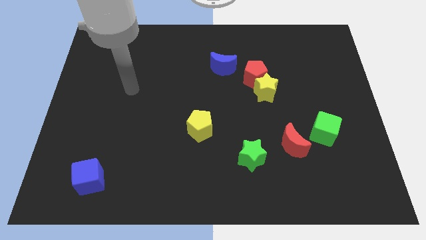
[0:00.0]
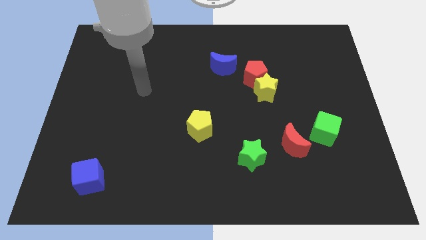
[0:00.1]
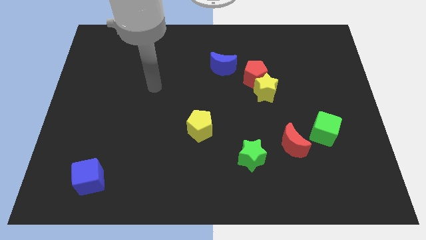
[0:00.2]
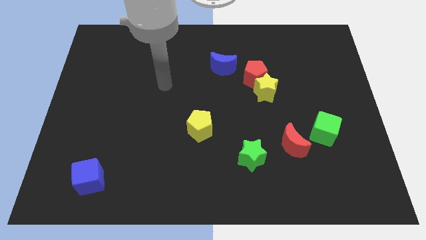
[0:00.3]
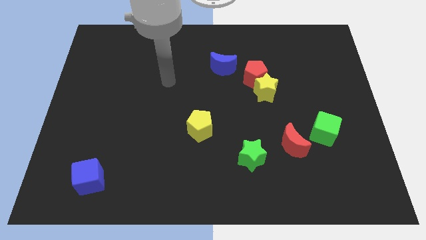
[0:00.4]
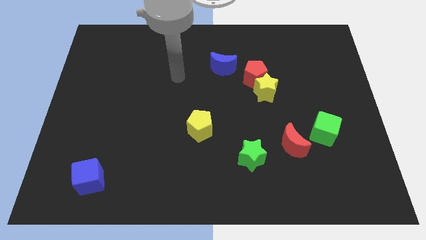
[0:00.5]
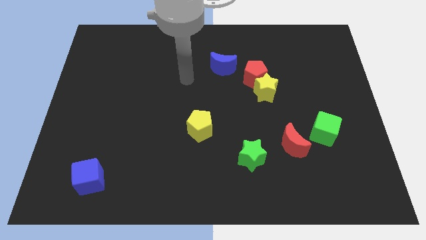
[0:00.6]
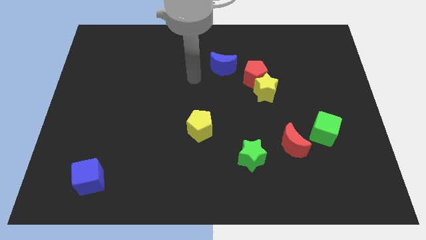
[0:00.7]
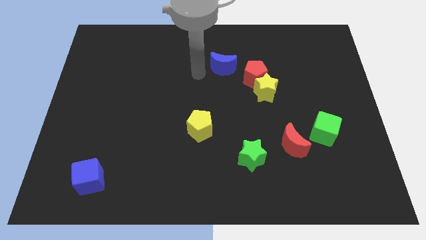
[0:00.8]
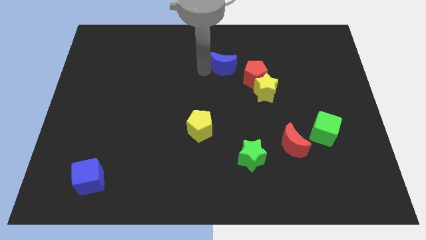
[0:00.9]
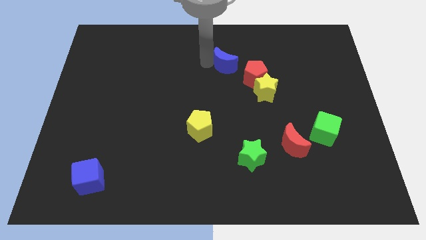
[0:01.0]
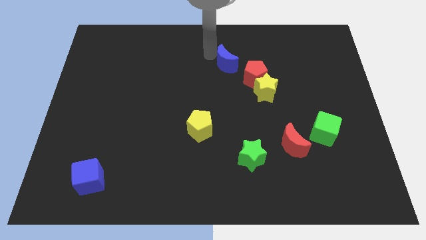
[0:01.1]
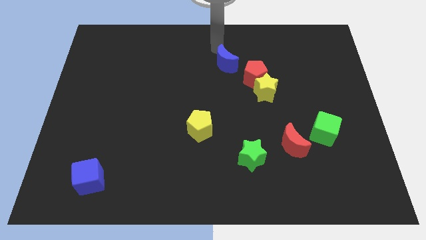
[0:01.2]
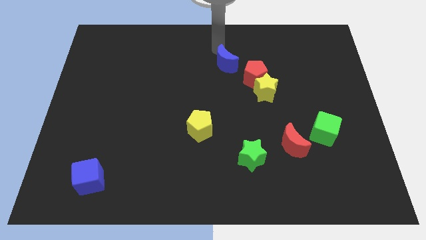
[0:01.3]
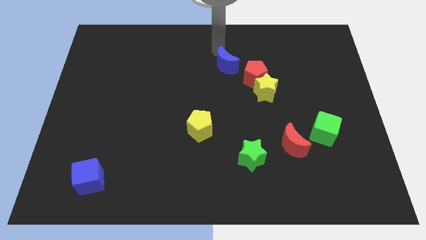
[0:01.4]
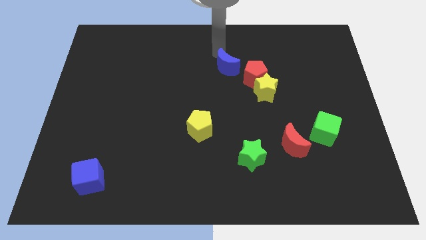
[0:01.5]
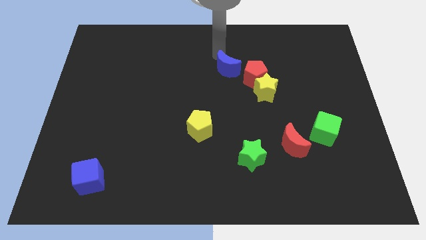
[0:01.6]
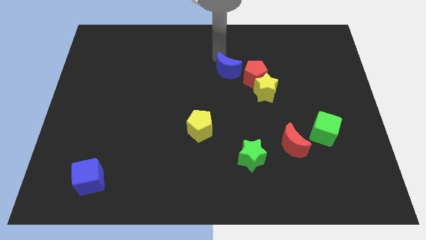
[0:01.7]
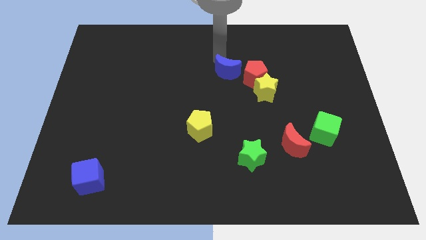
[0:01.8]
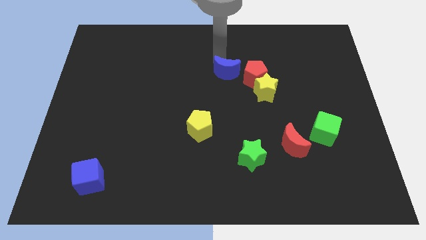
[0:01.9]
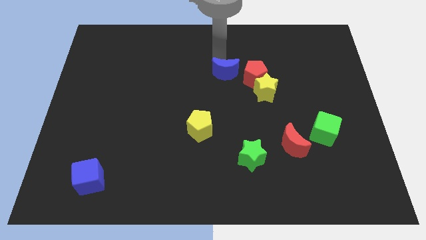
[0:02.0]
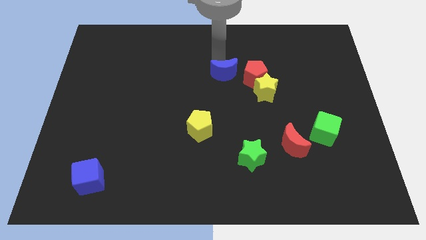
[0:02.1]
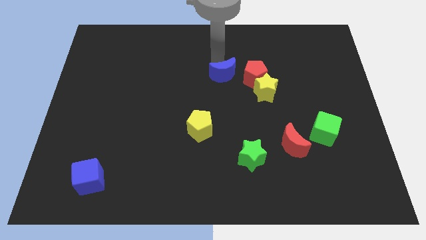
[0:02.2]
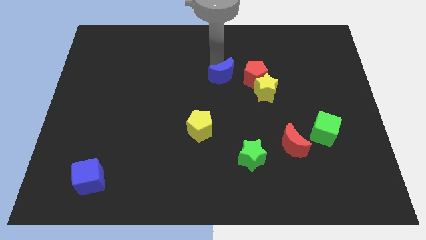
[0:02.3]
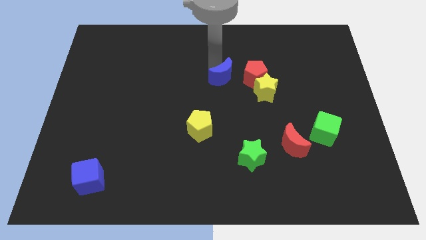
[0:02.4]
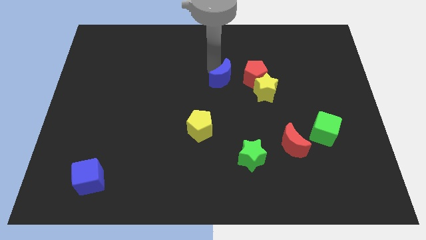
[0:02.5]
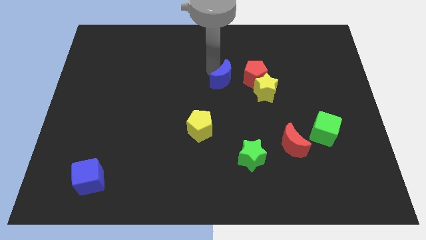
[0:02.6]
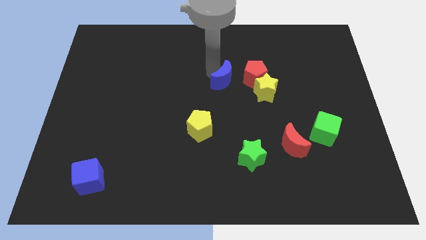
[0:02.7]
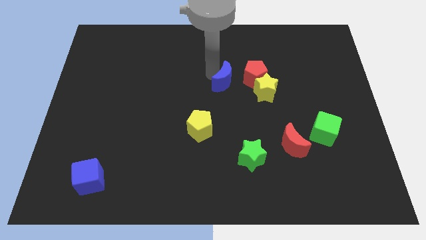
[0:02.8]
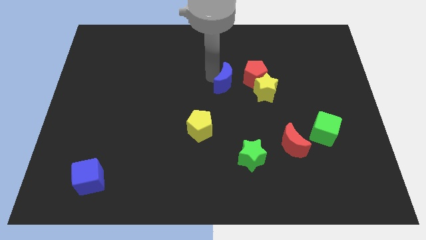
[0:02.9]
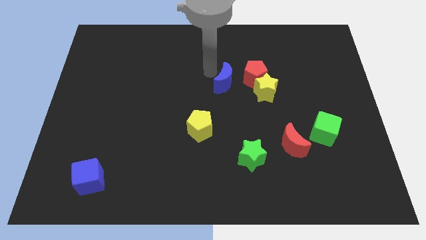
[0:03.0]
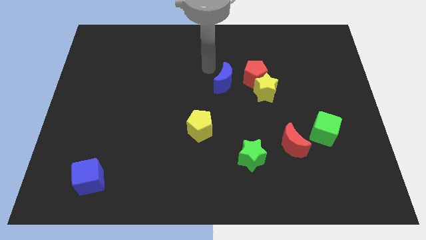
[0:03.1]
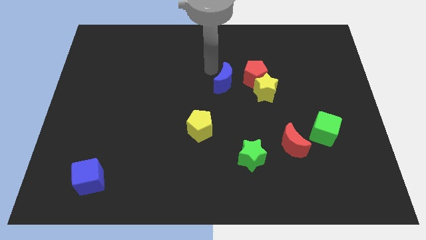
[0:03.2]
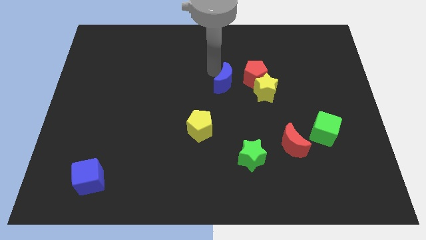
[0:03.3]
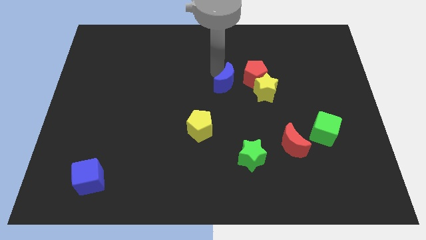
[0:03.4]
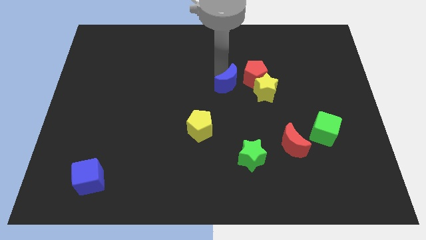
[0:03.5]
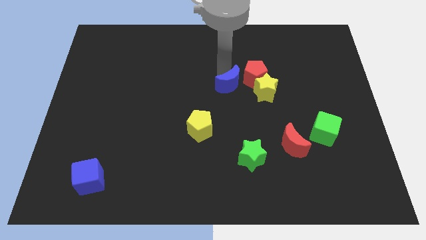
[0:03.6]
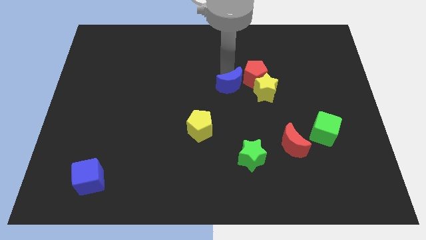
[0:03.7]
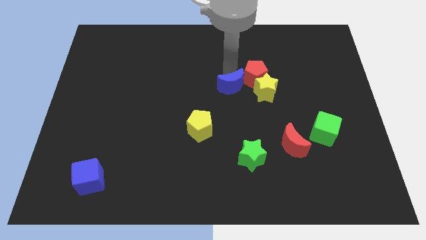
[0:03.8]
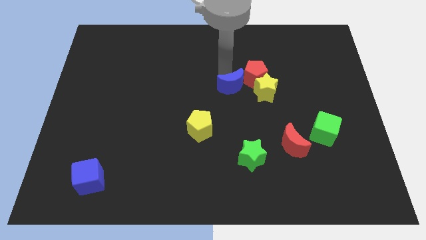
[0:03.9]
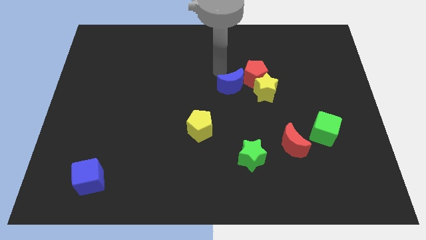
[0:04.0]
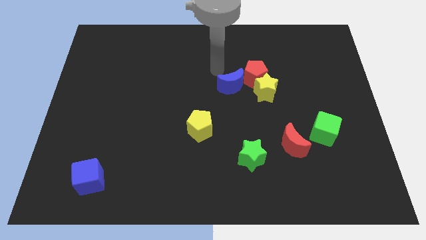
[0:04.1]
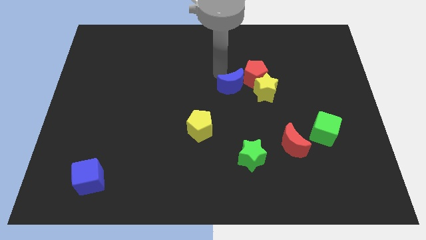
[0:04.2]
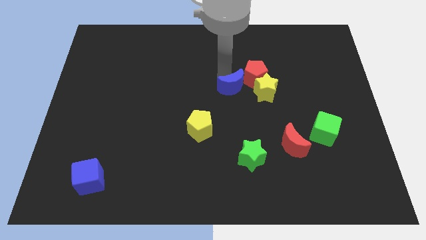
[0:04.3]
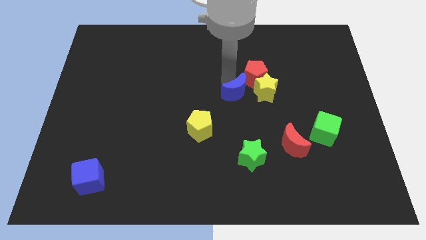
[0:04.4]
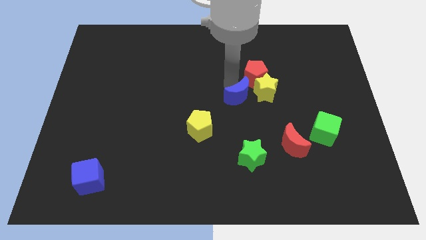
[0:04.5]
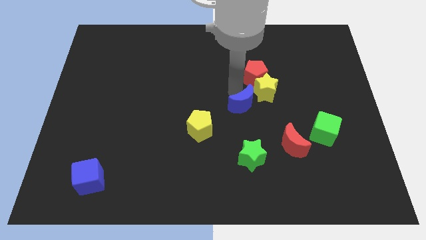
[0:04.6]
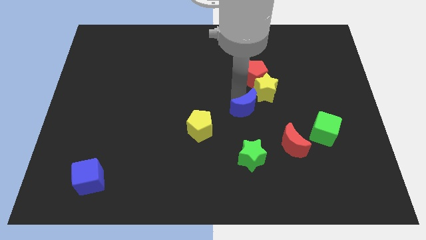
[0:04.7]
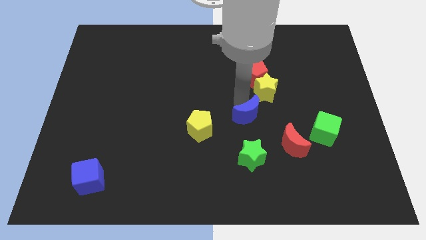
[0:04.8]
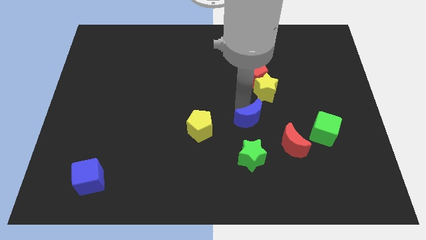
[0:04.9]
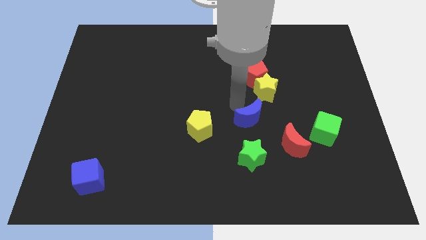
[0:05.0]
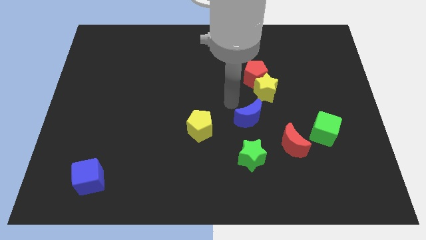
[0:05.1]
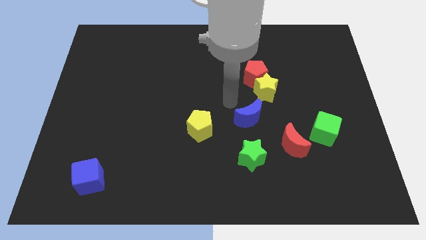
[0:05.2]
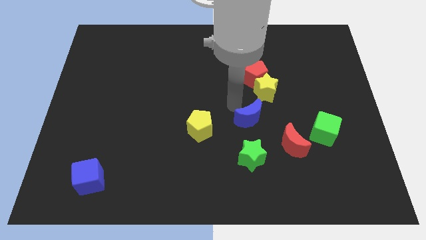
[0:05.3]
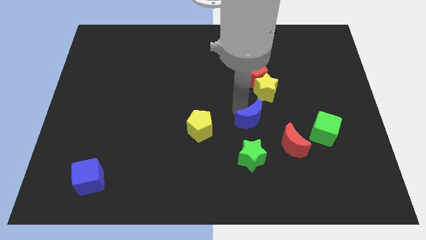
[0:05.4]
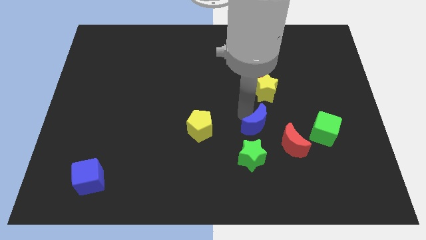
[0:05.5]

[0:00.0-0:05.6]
move the blue moon to the top right of the green star
